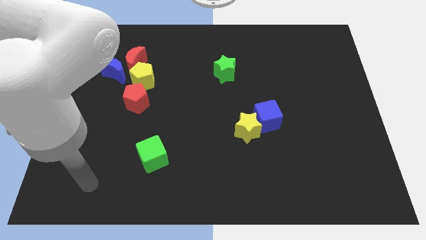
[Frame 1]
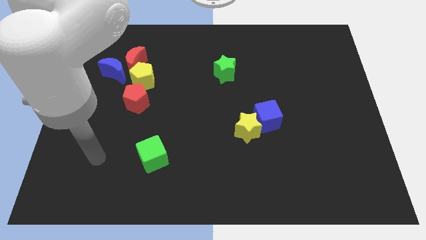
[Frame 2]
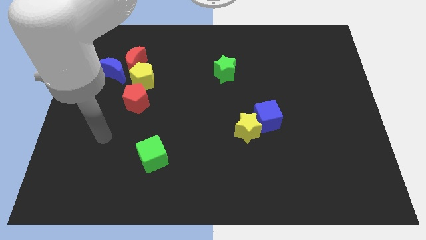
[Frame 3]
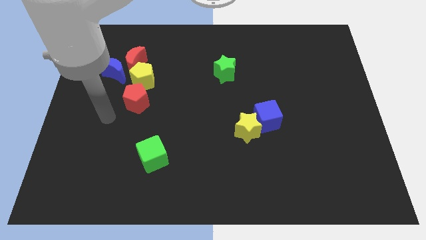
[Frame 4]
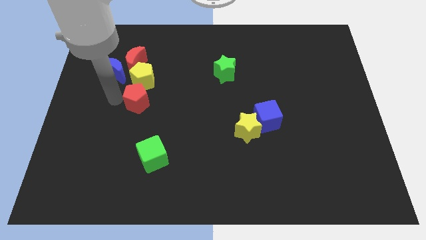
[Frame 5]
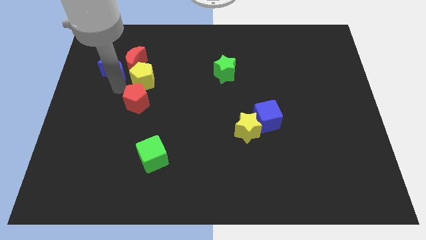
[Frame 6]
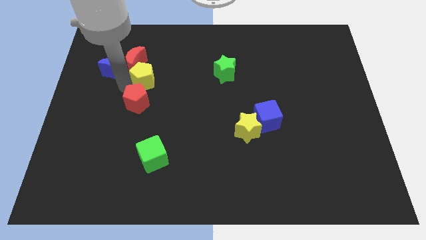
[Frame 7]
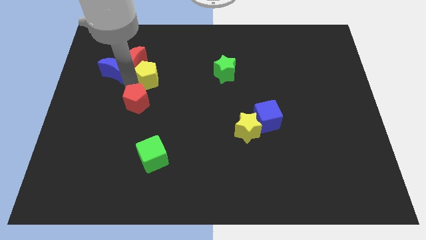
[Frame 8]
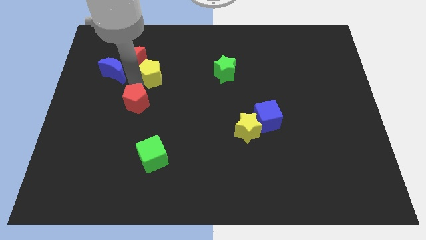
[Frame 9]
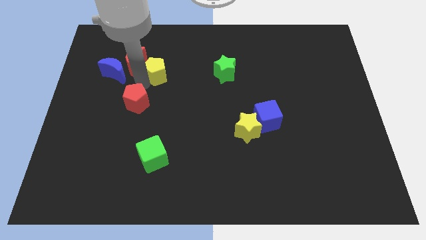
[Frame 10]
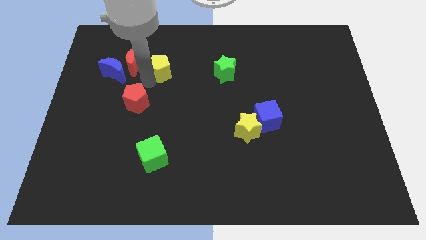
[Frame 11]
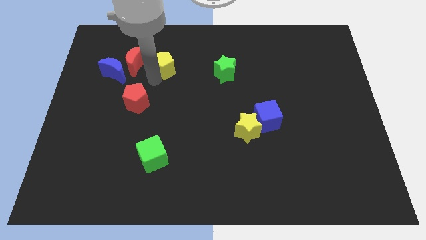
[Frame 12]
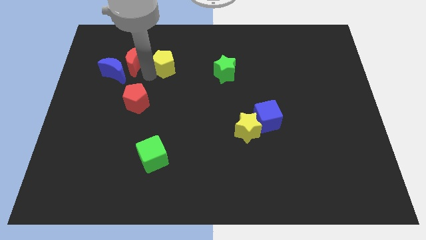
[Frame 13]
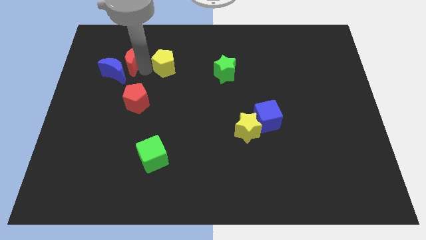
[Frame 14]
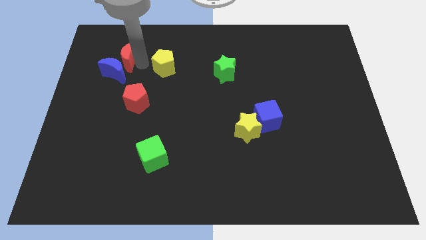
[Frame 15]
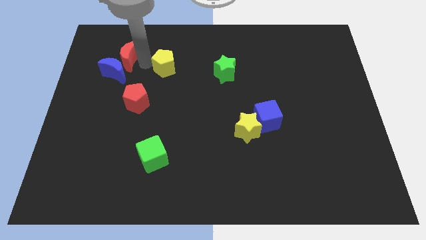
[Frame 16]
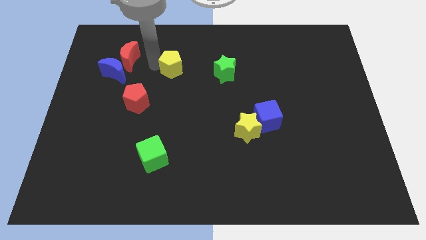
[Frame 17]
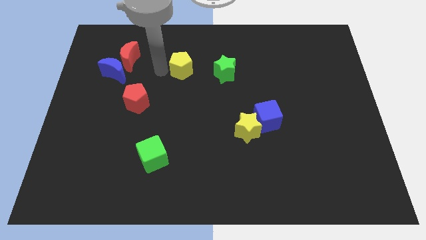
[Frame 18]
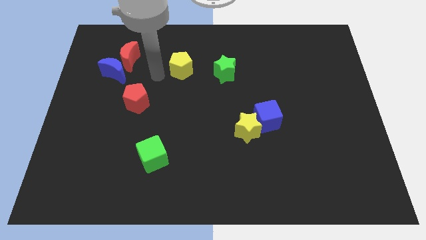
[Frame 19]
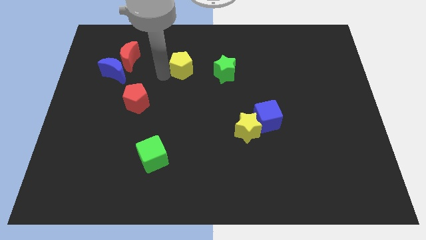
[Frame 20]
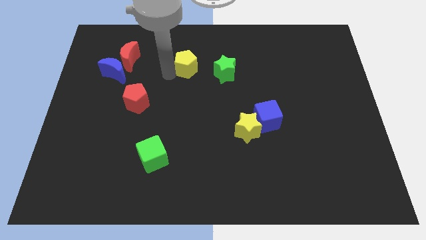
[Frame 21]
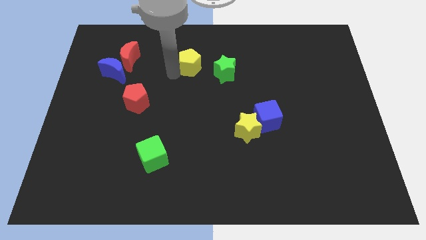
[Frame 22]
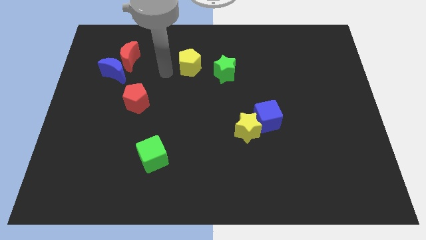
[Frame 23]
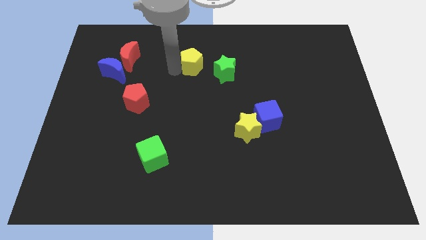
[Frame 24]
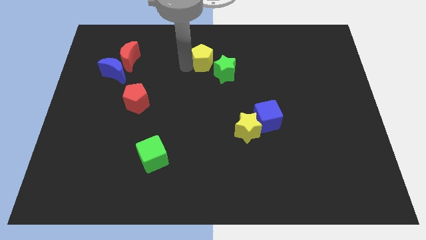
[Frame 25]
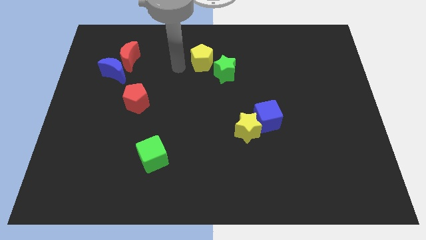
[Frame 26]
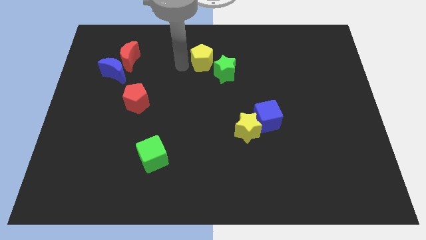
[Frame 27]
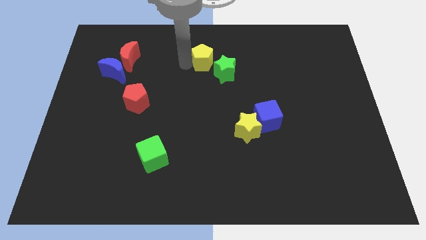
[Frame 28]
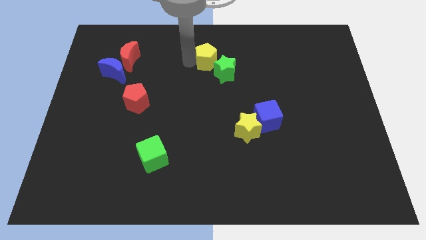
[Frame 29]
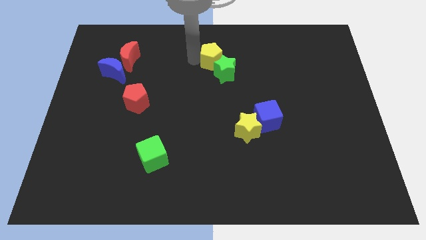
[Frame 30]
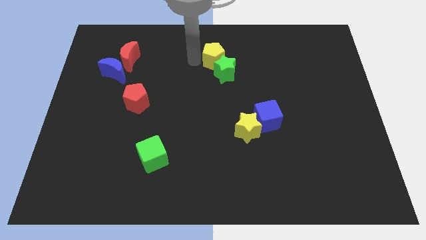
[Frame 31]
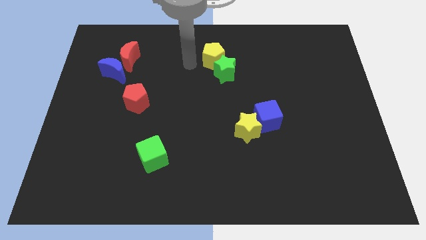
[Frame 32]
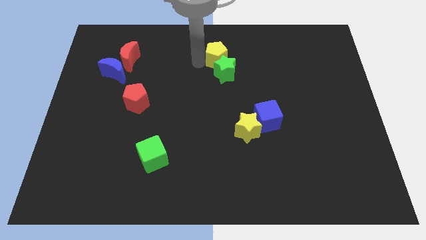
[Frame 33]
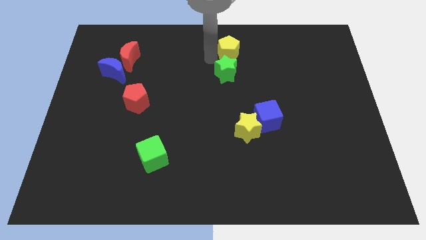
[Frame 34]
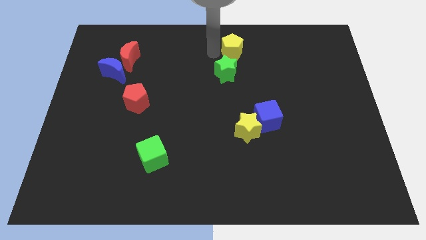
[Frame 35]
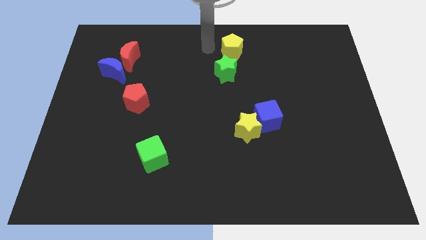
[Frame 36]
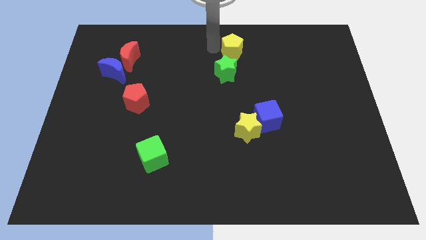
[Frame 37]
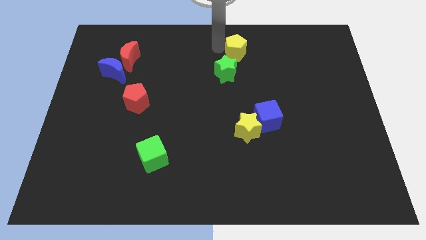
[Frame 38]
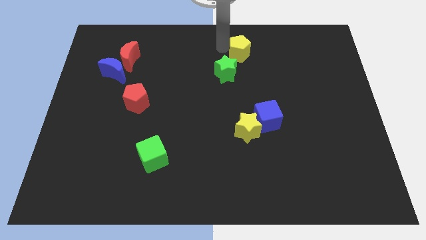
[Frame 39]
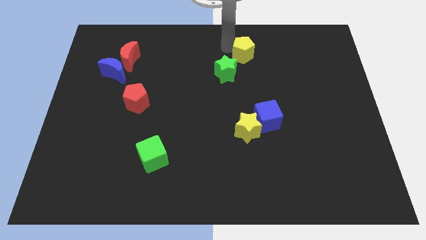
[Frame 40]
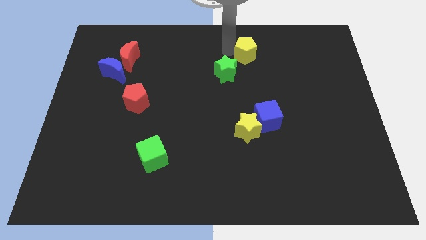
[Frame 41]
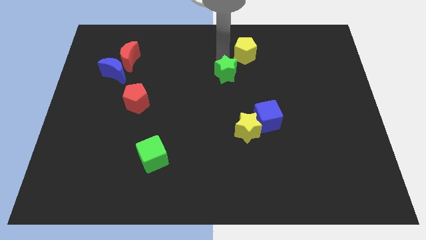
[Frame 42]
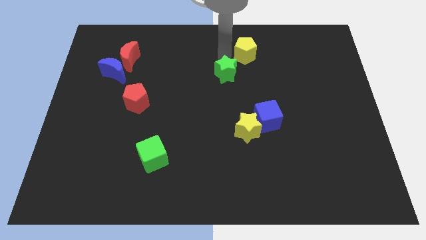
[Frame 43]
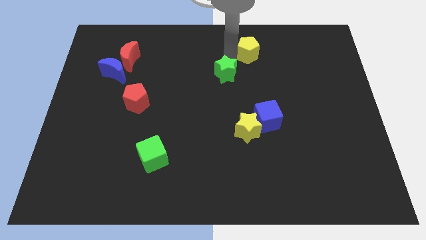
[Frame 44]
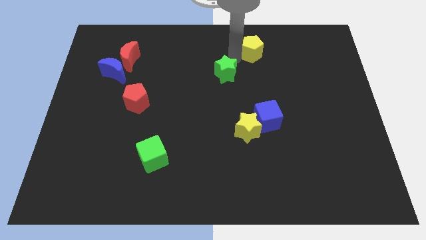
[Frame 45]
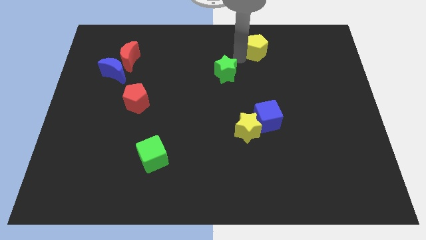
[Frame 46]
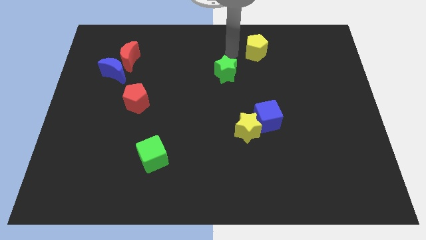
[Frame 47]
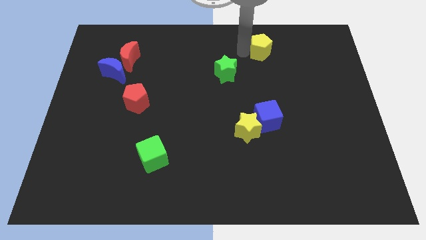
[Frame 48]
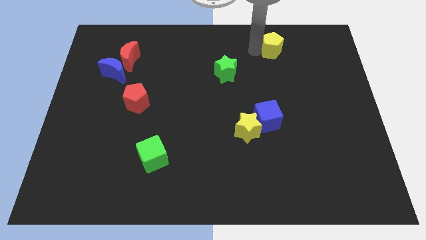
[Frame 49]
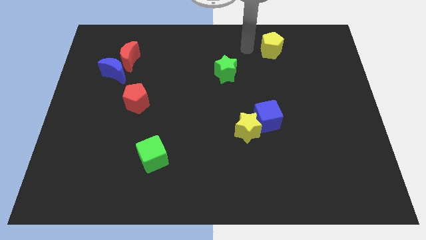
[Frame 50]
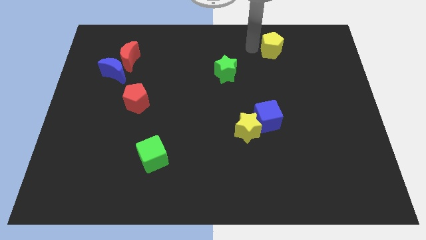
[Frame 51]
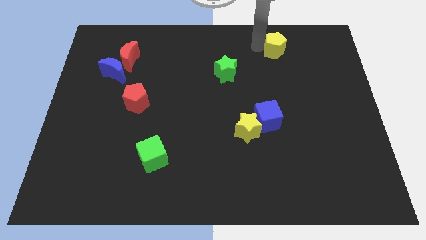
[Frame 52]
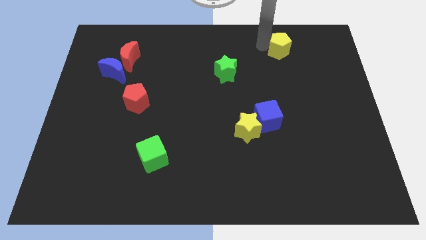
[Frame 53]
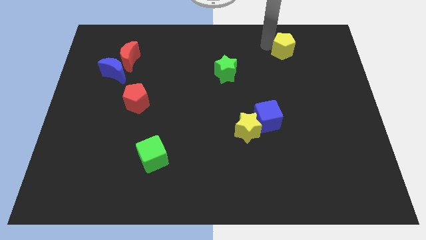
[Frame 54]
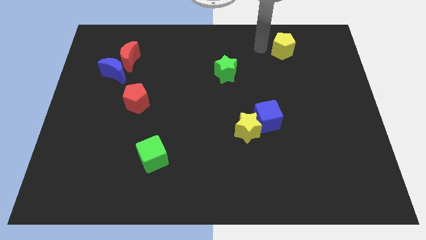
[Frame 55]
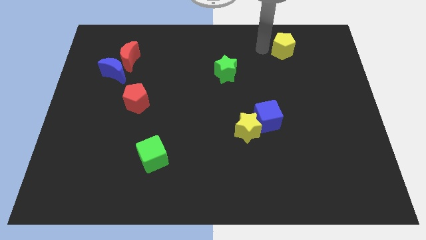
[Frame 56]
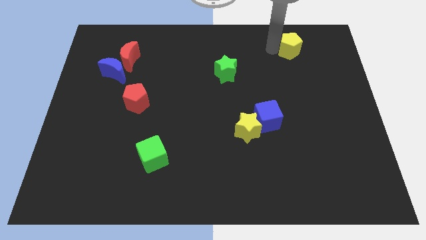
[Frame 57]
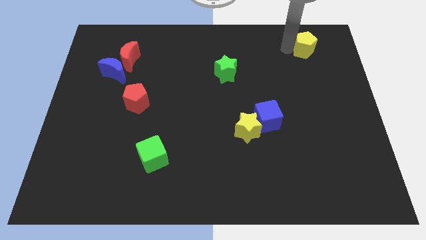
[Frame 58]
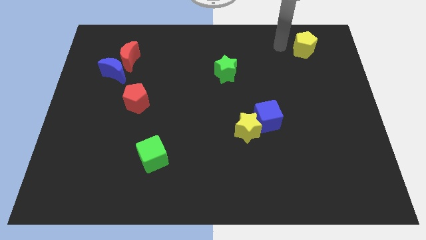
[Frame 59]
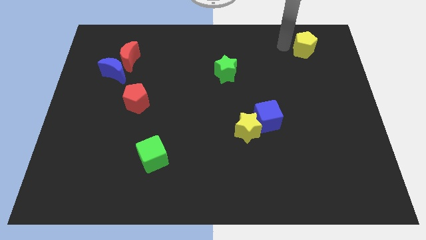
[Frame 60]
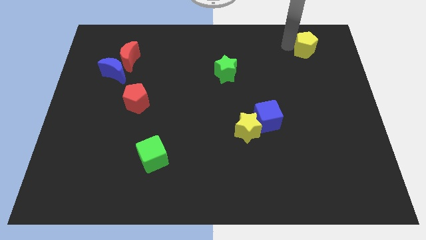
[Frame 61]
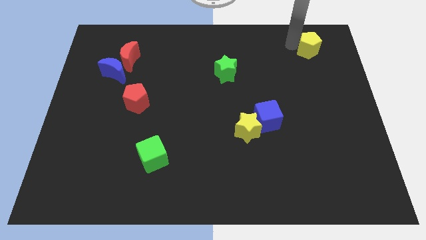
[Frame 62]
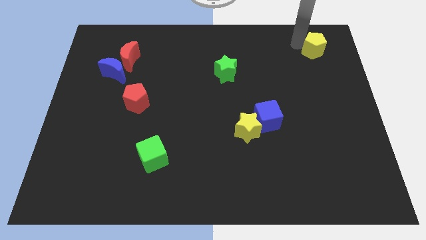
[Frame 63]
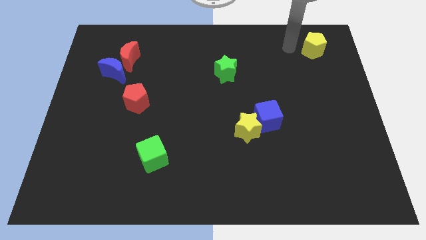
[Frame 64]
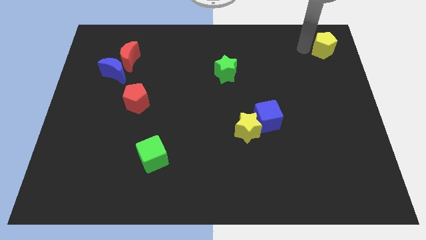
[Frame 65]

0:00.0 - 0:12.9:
move the yellow pentagon to the upper right corner

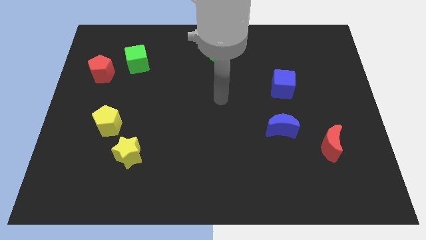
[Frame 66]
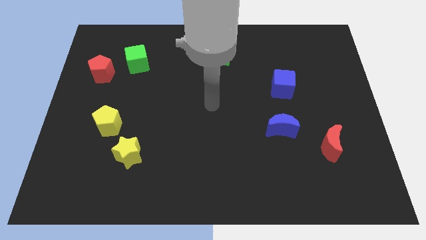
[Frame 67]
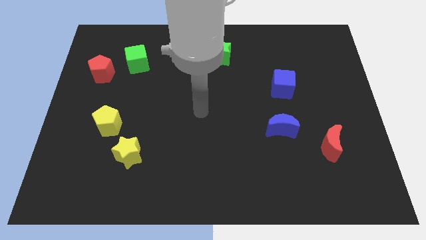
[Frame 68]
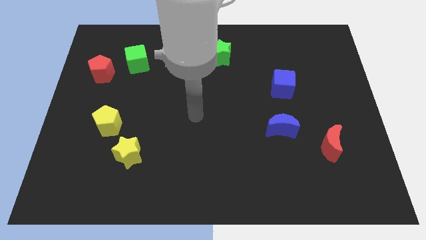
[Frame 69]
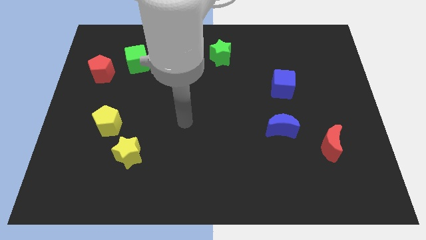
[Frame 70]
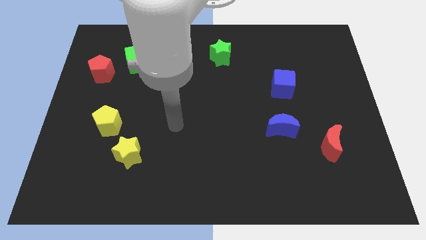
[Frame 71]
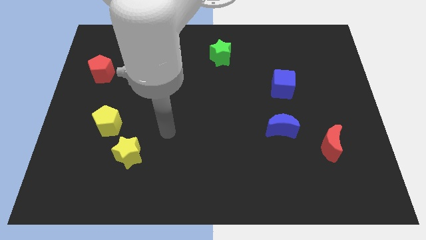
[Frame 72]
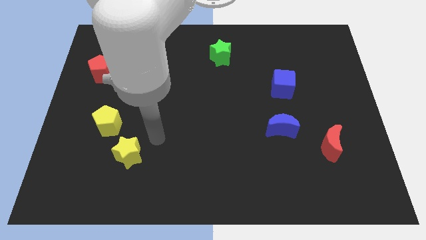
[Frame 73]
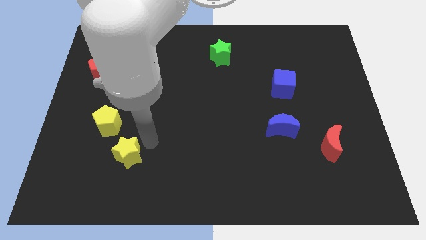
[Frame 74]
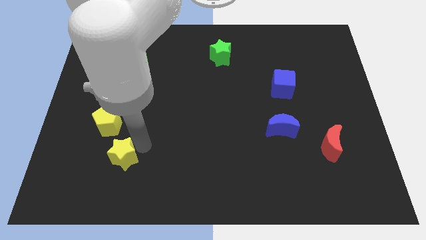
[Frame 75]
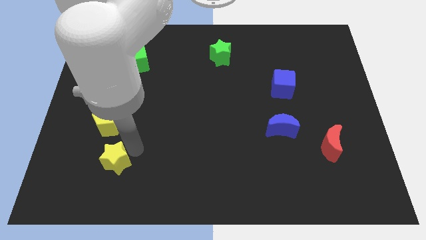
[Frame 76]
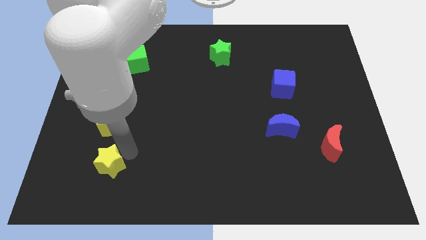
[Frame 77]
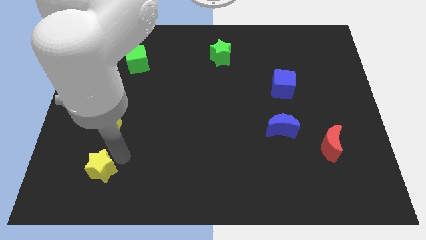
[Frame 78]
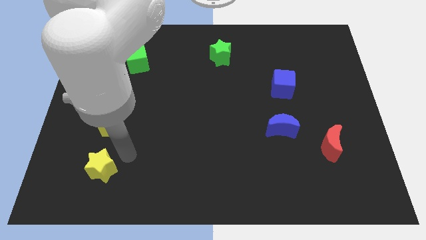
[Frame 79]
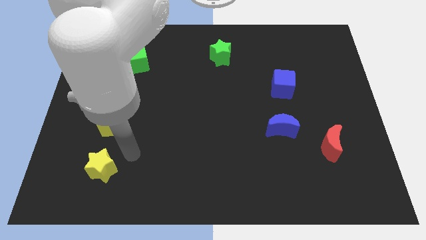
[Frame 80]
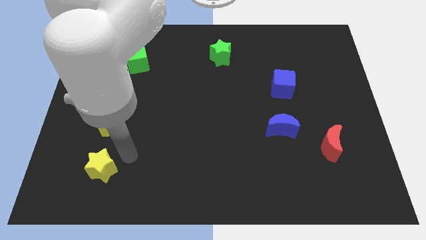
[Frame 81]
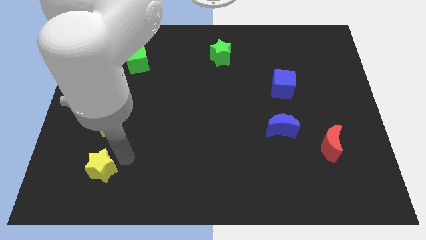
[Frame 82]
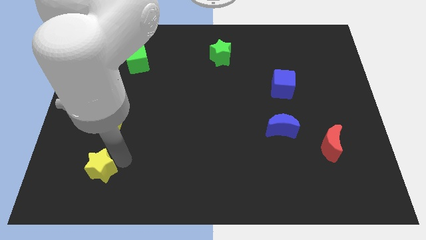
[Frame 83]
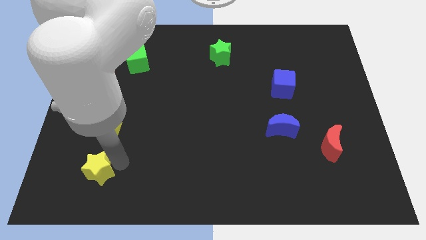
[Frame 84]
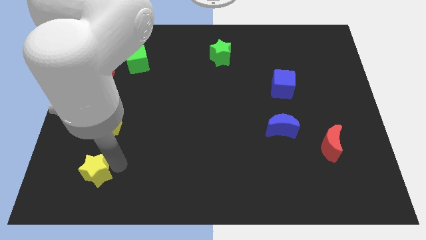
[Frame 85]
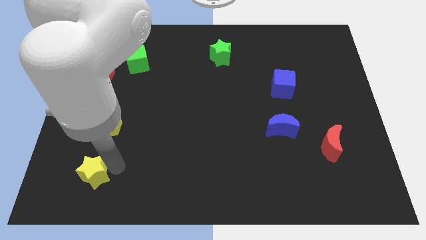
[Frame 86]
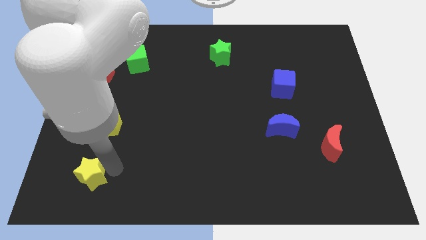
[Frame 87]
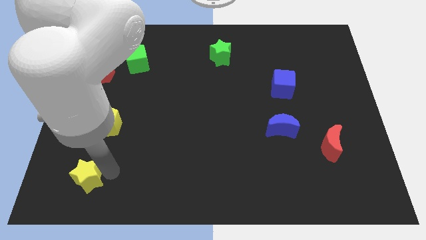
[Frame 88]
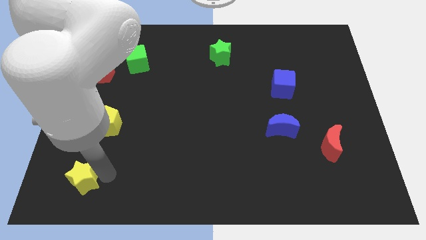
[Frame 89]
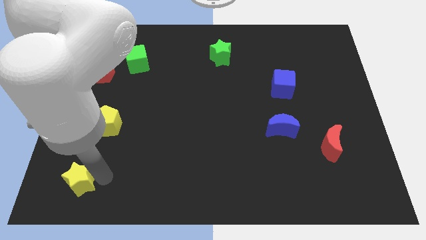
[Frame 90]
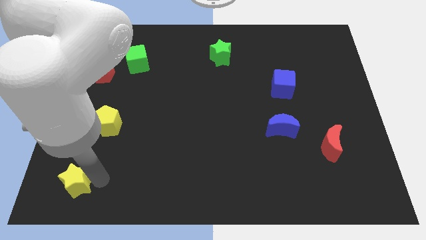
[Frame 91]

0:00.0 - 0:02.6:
push the yellow star to the bottom left corner
